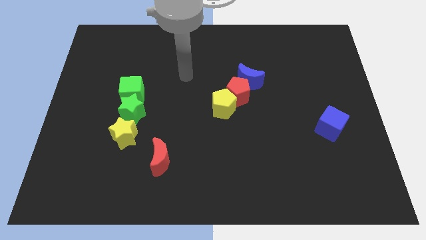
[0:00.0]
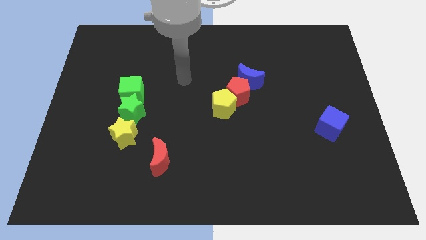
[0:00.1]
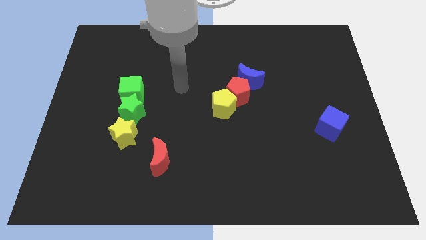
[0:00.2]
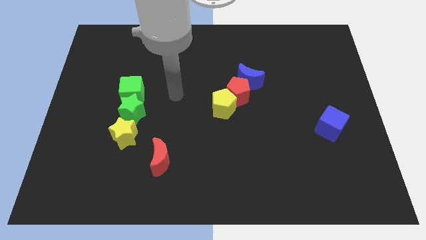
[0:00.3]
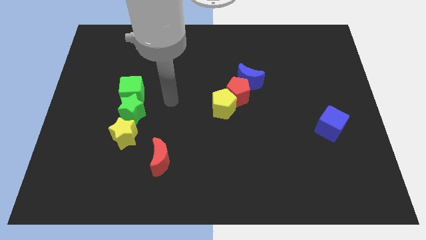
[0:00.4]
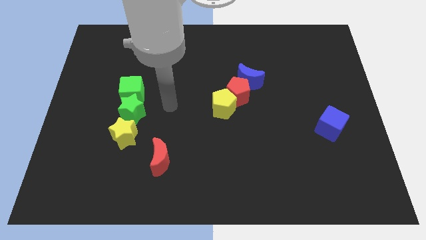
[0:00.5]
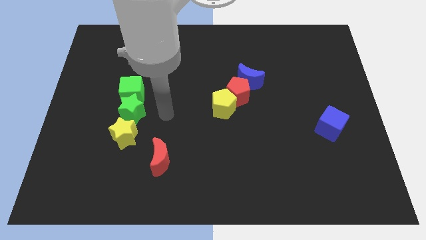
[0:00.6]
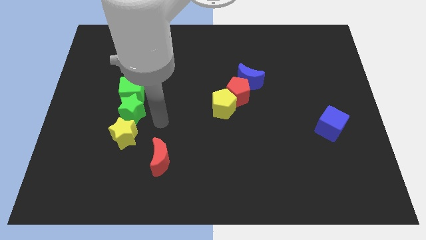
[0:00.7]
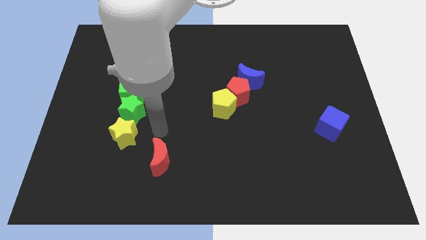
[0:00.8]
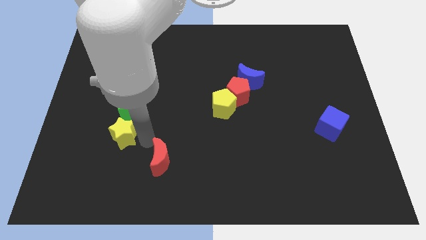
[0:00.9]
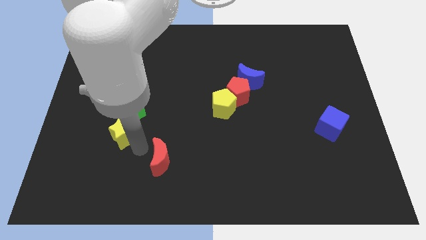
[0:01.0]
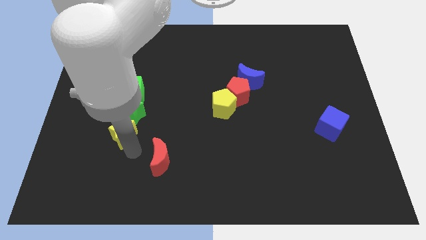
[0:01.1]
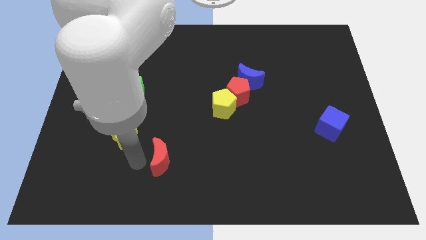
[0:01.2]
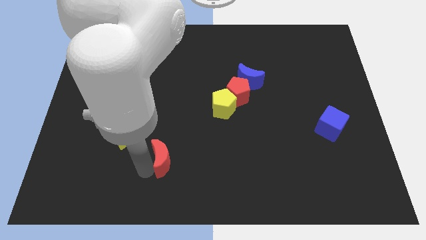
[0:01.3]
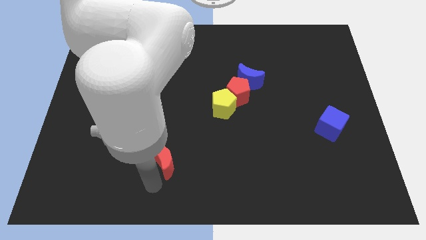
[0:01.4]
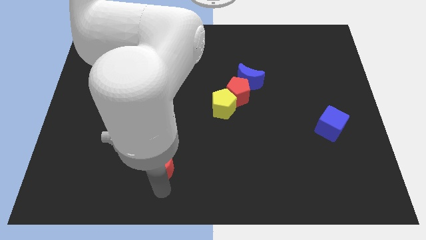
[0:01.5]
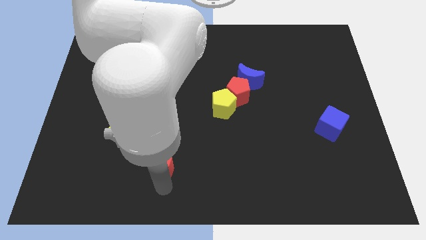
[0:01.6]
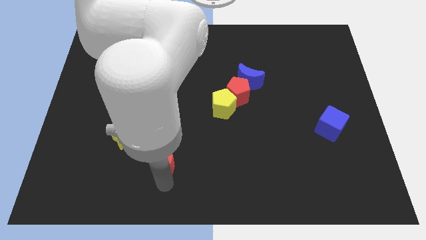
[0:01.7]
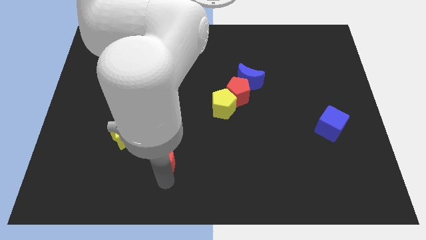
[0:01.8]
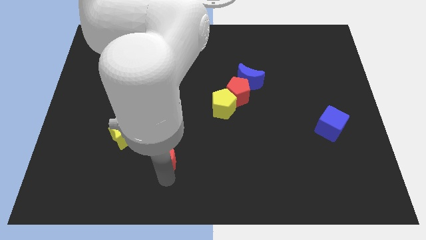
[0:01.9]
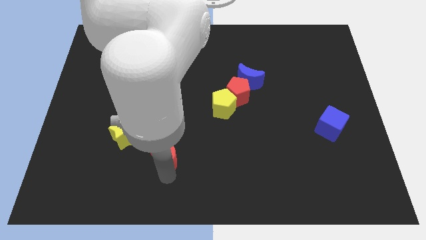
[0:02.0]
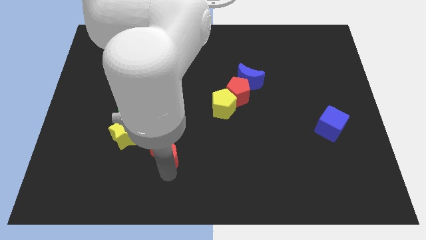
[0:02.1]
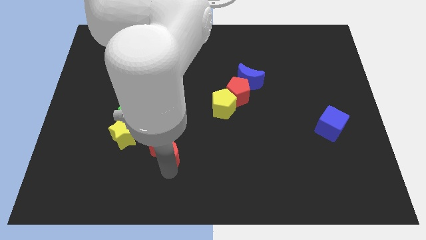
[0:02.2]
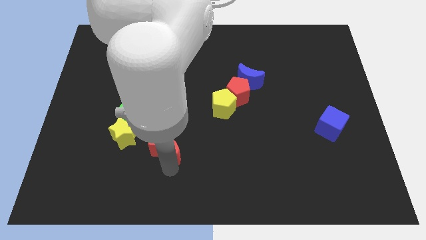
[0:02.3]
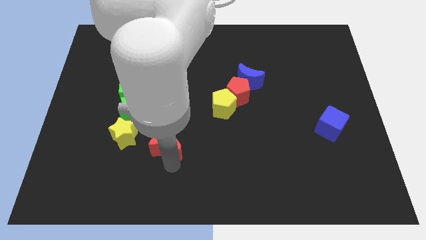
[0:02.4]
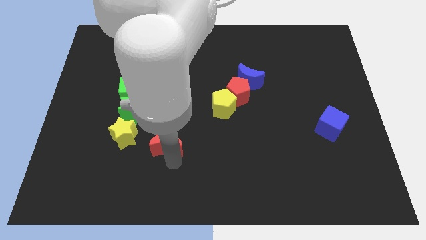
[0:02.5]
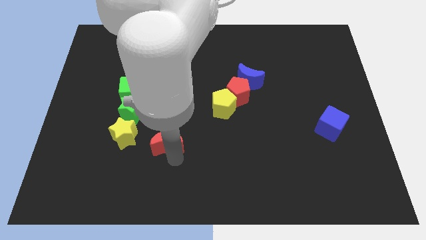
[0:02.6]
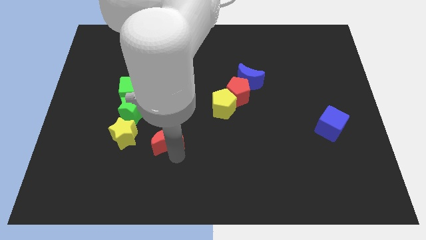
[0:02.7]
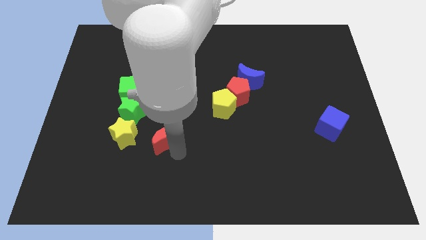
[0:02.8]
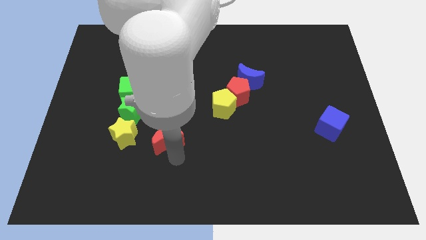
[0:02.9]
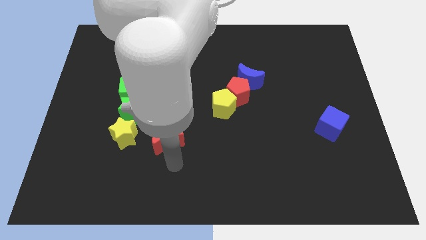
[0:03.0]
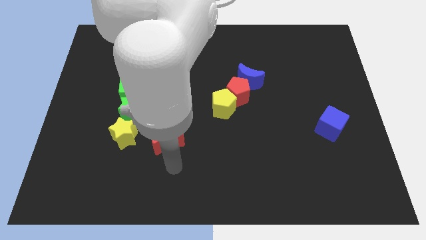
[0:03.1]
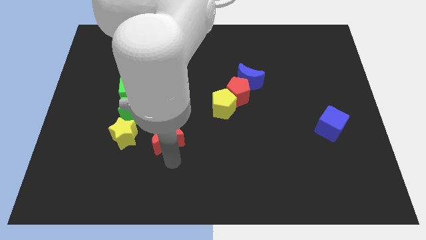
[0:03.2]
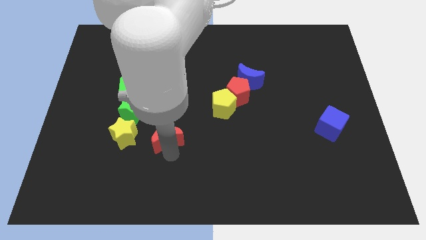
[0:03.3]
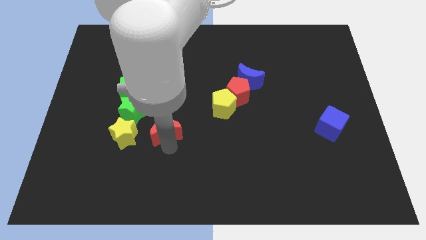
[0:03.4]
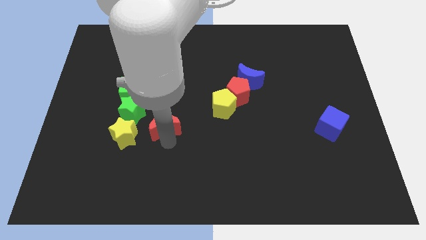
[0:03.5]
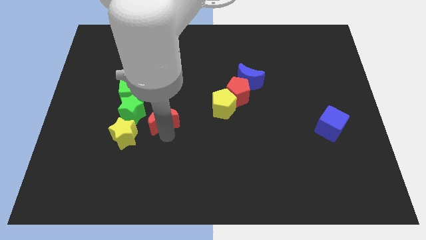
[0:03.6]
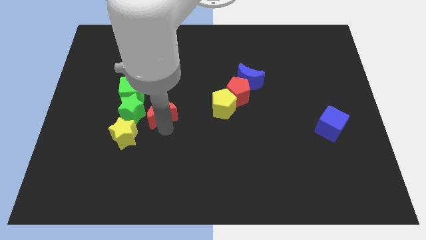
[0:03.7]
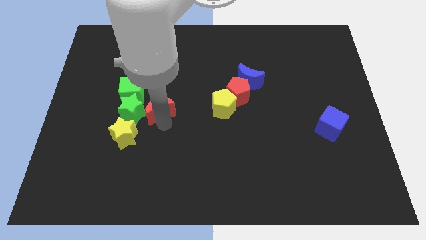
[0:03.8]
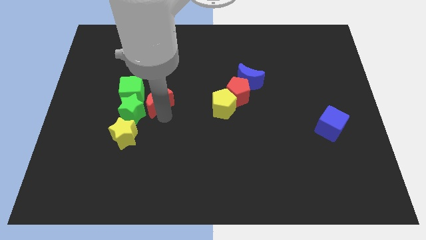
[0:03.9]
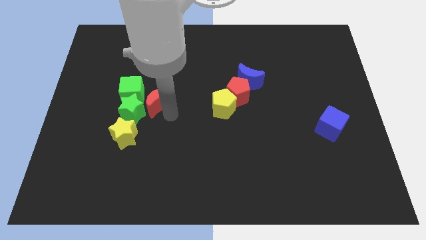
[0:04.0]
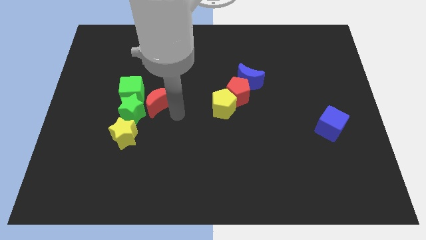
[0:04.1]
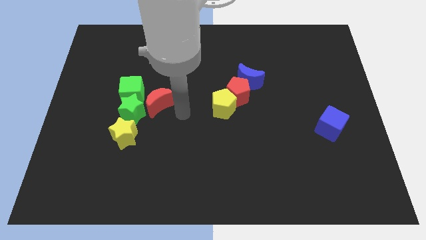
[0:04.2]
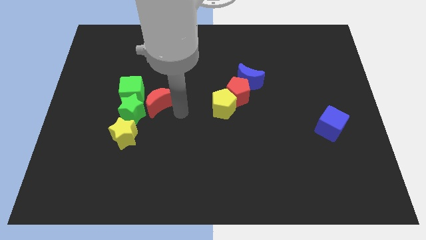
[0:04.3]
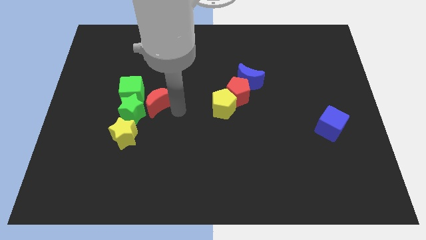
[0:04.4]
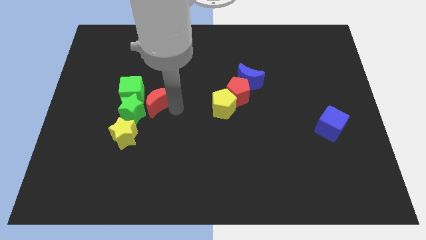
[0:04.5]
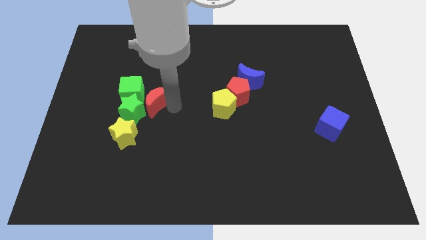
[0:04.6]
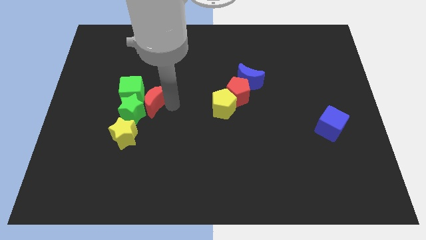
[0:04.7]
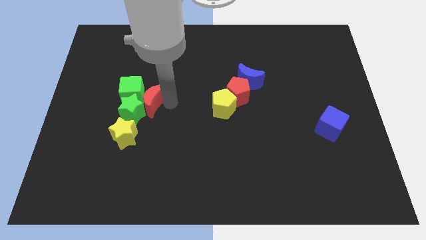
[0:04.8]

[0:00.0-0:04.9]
slide the red moon close to the green cube

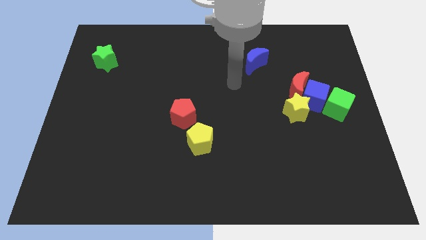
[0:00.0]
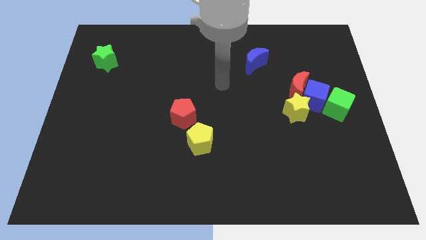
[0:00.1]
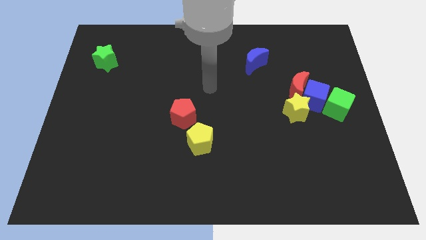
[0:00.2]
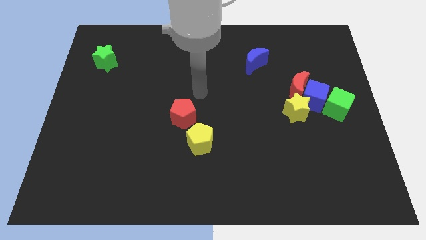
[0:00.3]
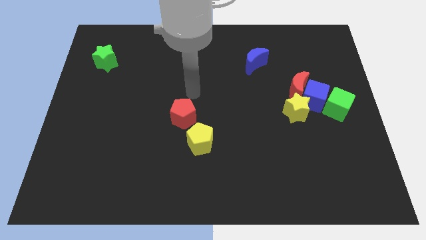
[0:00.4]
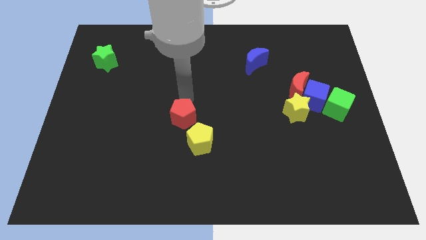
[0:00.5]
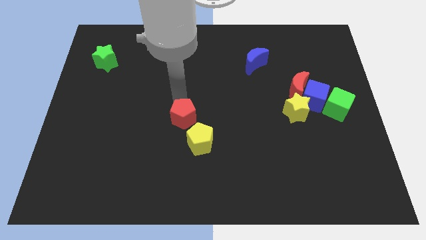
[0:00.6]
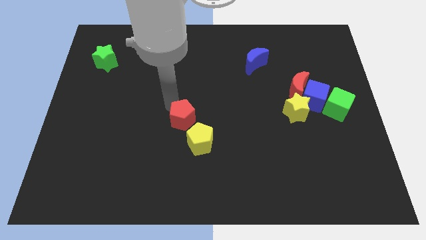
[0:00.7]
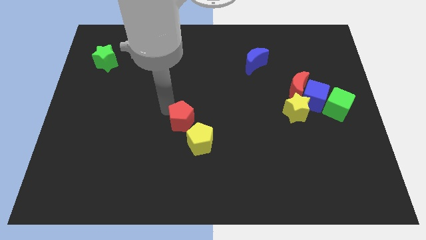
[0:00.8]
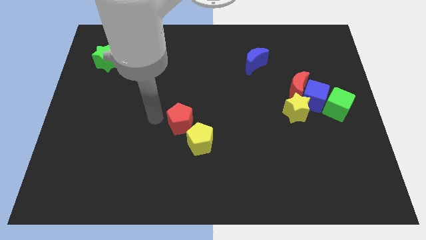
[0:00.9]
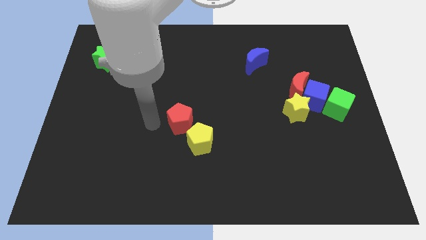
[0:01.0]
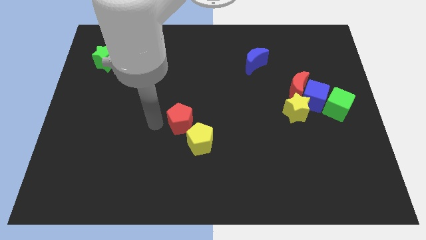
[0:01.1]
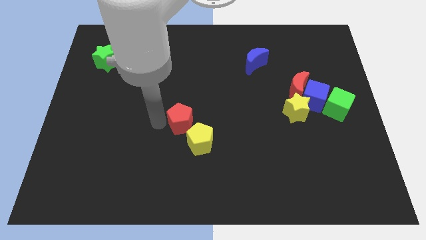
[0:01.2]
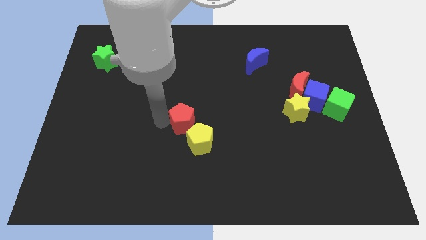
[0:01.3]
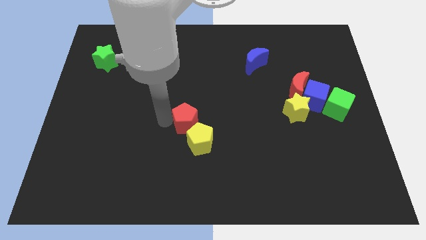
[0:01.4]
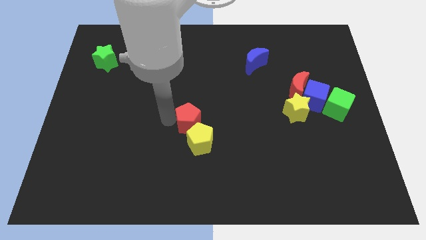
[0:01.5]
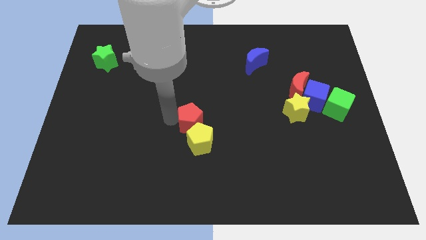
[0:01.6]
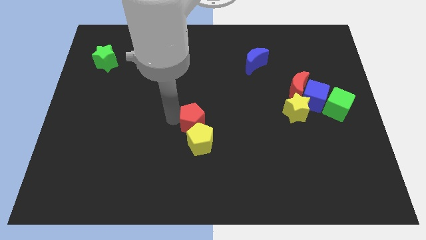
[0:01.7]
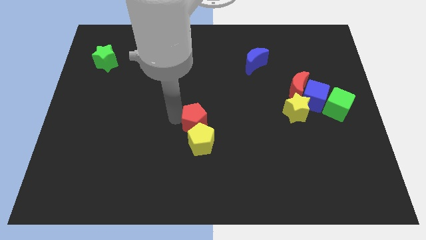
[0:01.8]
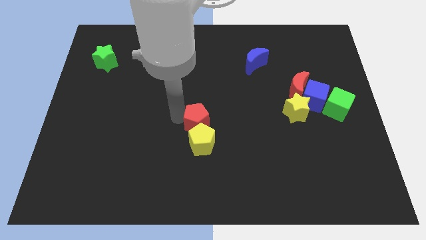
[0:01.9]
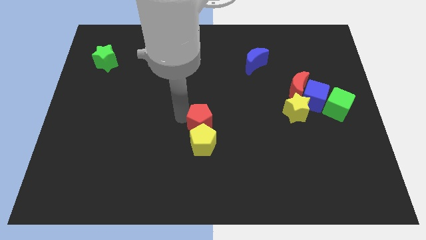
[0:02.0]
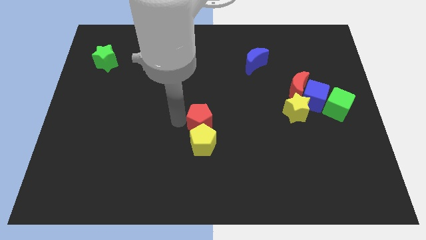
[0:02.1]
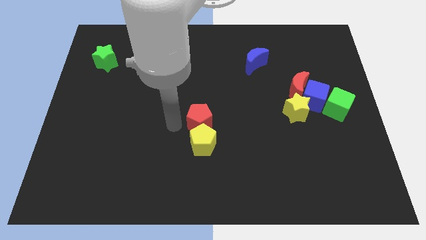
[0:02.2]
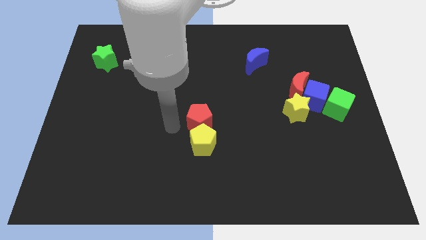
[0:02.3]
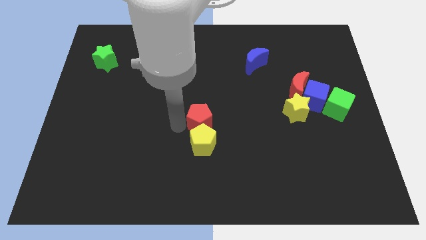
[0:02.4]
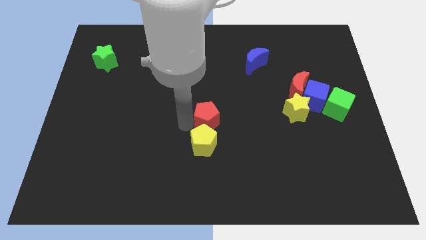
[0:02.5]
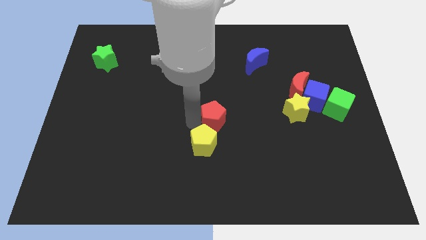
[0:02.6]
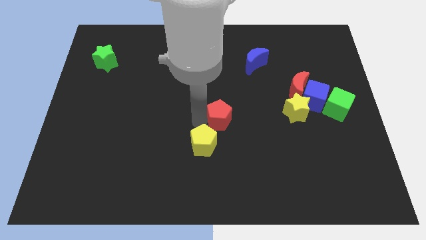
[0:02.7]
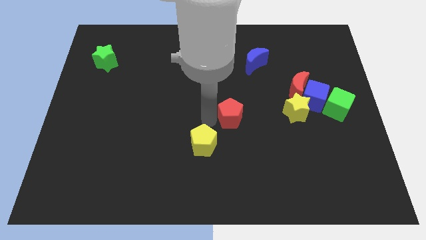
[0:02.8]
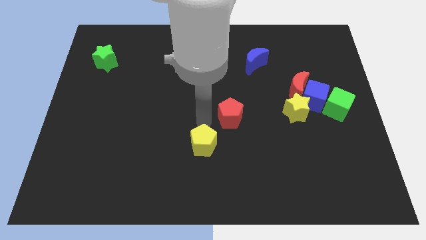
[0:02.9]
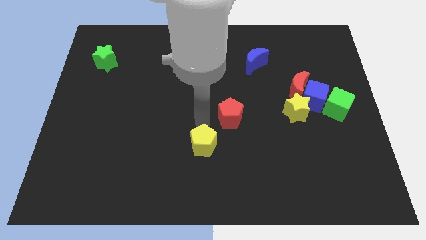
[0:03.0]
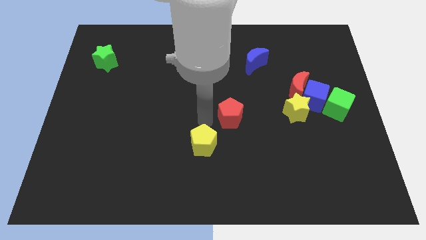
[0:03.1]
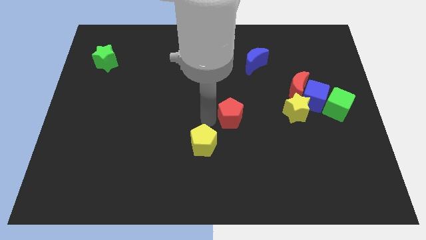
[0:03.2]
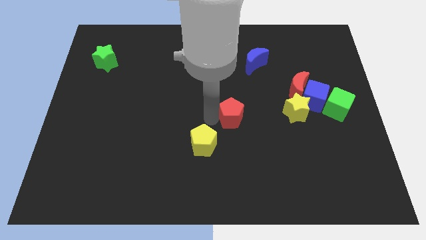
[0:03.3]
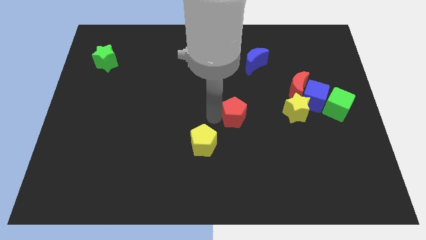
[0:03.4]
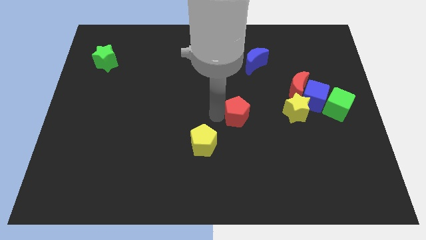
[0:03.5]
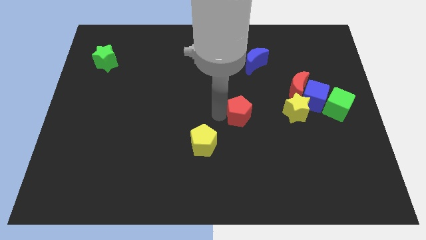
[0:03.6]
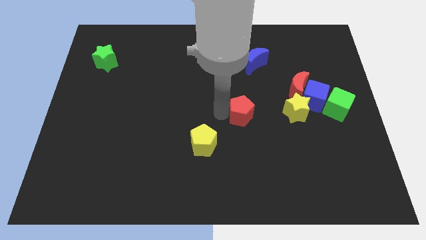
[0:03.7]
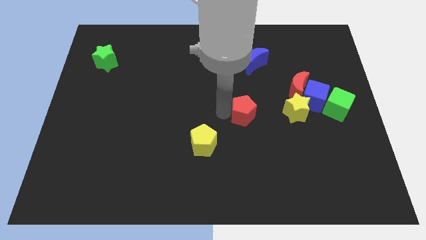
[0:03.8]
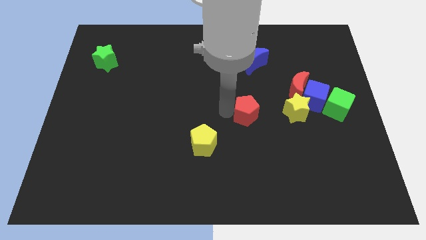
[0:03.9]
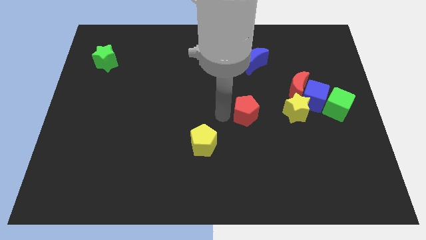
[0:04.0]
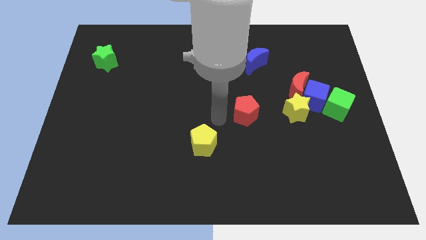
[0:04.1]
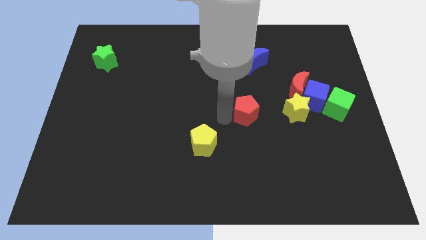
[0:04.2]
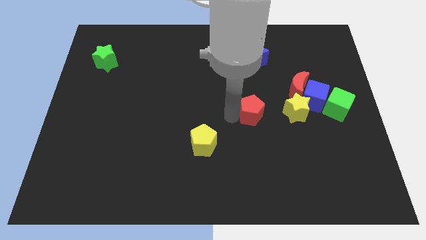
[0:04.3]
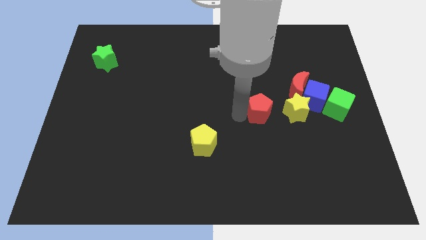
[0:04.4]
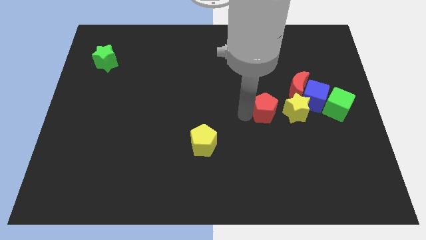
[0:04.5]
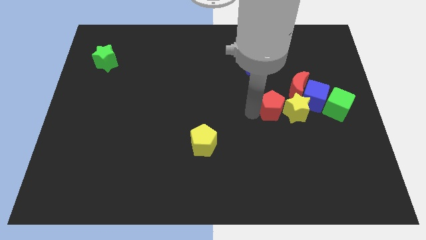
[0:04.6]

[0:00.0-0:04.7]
put the red pentagon close to the yellow star
